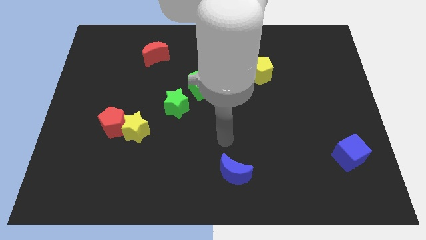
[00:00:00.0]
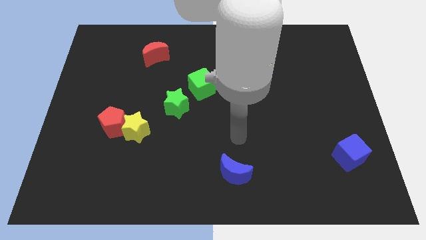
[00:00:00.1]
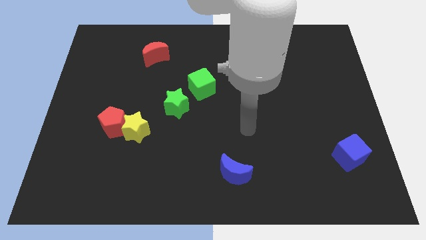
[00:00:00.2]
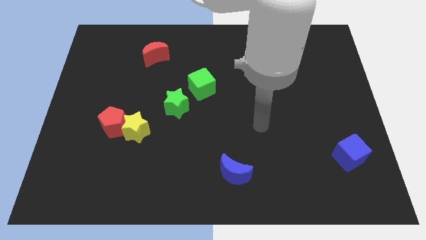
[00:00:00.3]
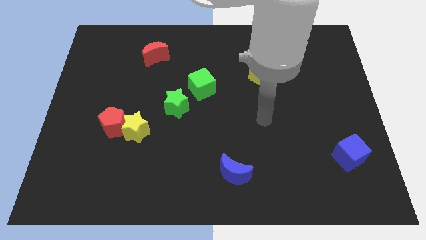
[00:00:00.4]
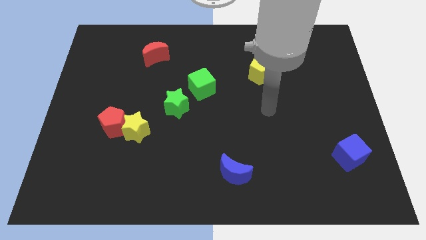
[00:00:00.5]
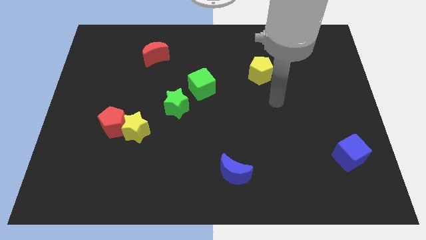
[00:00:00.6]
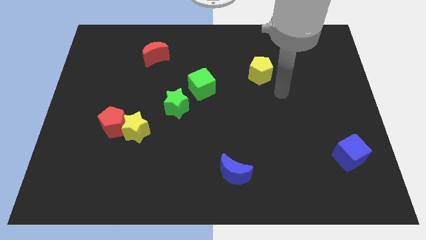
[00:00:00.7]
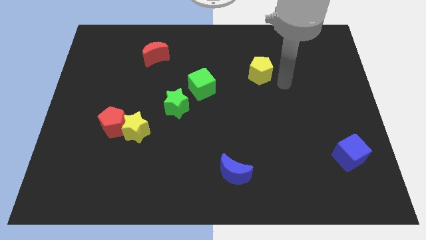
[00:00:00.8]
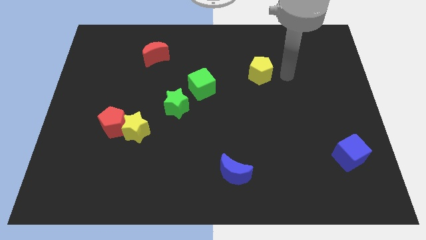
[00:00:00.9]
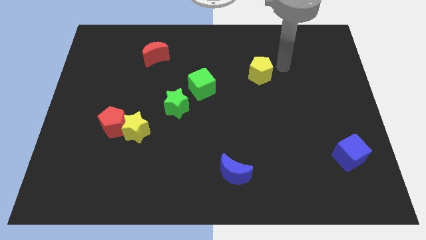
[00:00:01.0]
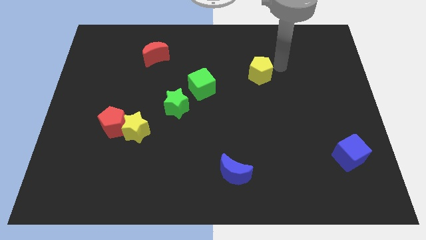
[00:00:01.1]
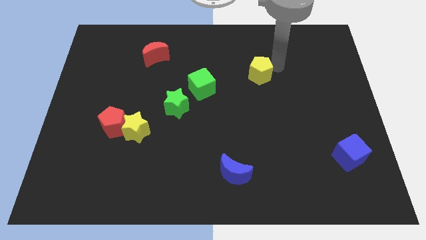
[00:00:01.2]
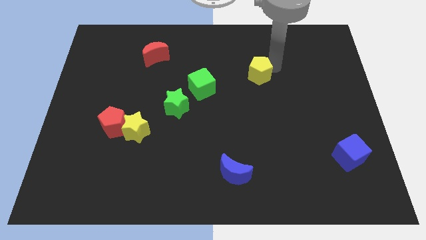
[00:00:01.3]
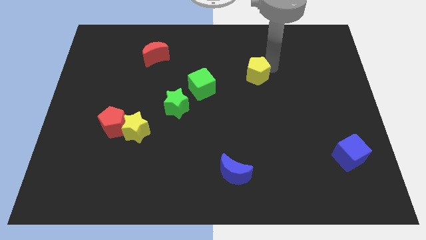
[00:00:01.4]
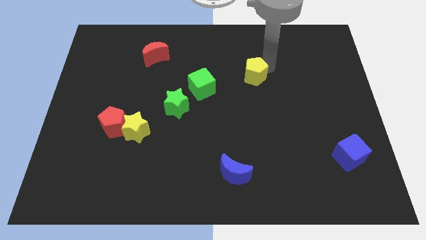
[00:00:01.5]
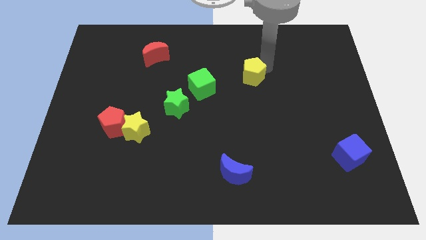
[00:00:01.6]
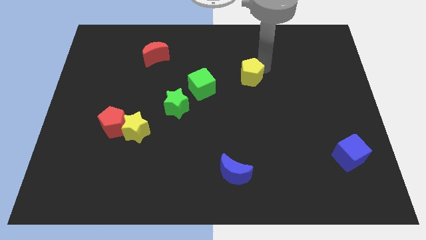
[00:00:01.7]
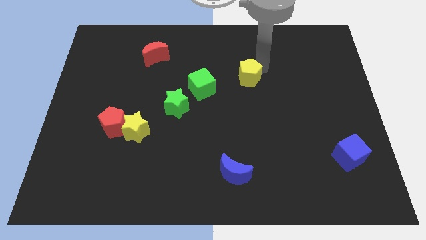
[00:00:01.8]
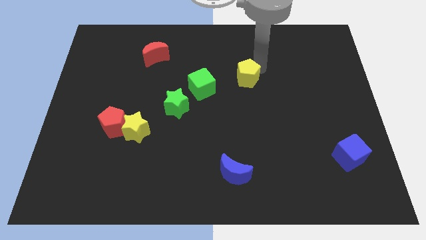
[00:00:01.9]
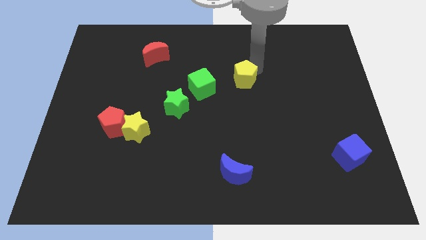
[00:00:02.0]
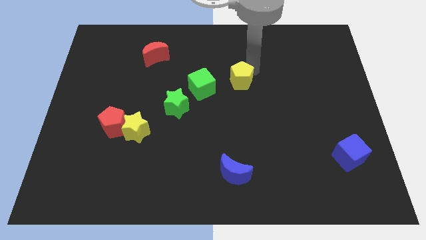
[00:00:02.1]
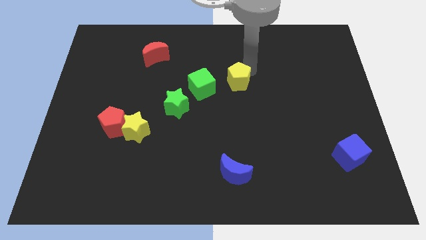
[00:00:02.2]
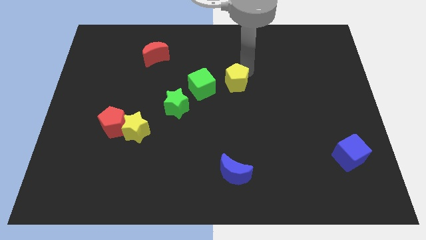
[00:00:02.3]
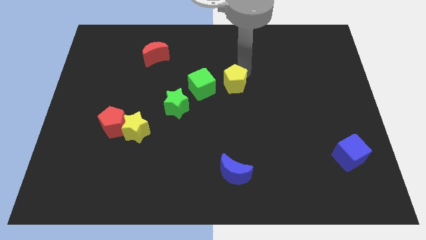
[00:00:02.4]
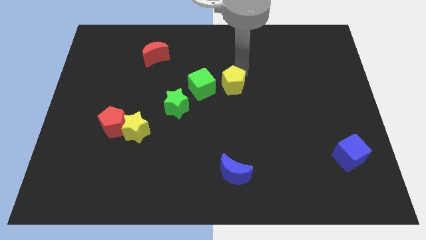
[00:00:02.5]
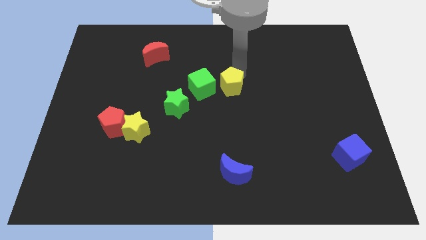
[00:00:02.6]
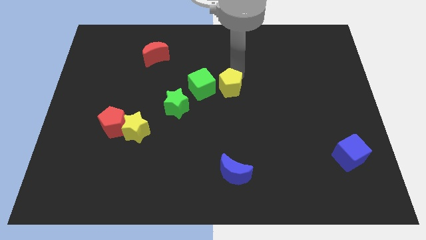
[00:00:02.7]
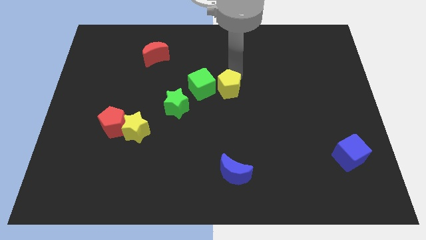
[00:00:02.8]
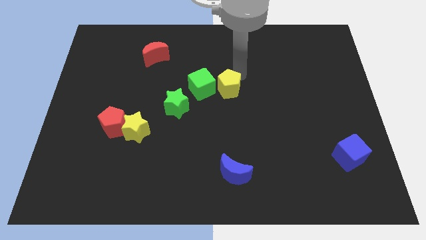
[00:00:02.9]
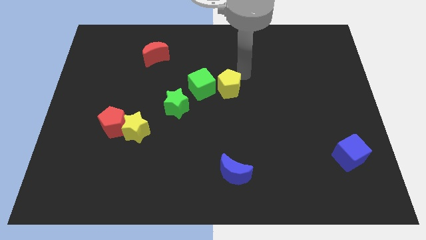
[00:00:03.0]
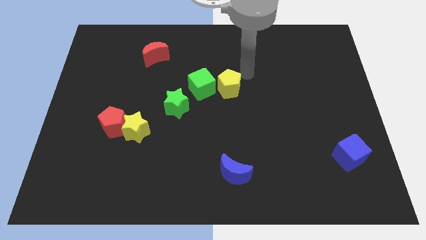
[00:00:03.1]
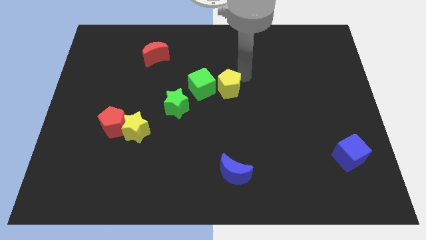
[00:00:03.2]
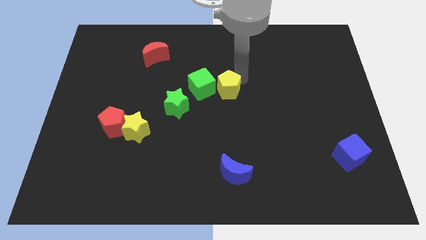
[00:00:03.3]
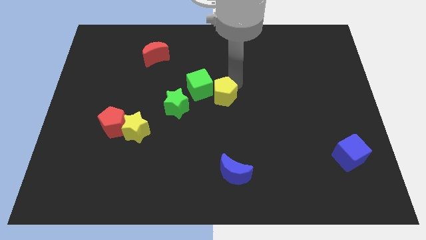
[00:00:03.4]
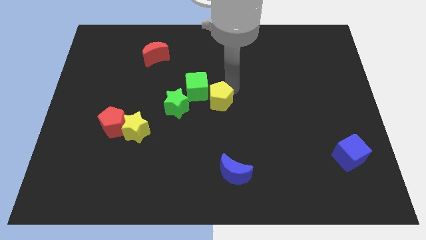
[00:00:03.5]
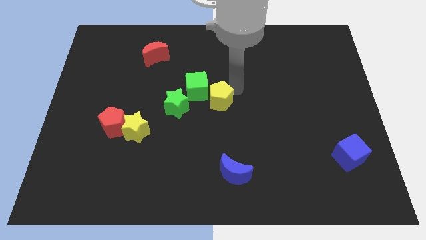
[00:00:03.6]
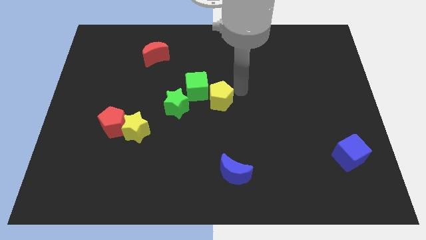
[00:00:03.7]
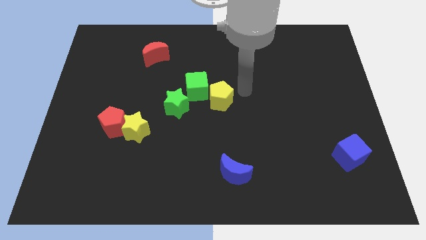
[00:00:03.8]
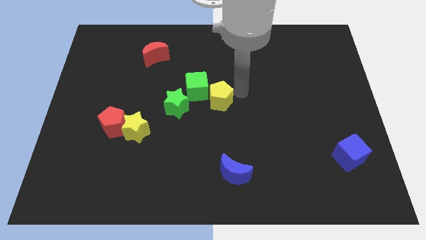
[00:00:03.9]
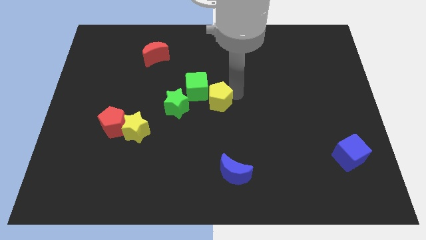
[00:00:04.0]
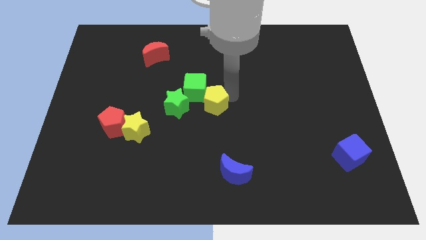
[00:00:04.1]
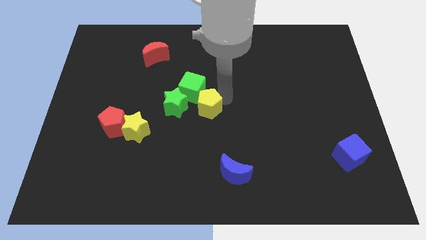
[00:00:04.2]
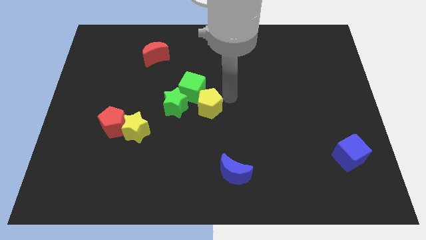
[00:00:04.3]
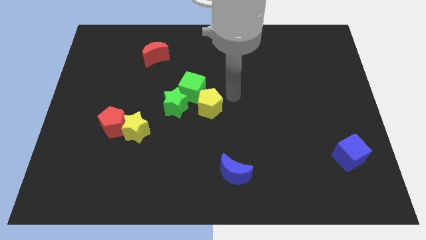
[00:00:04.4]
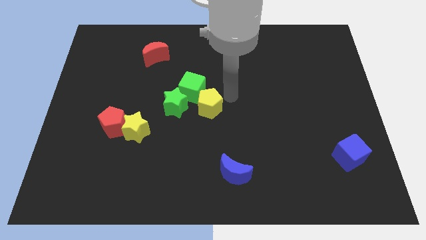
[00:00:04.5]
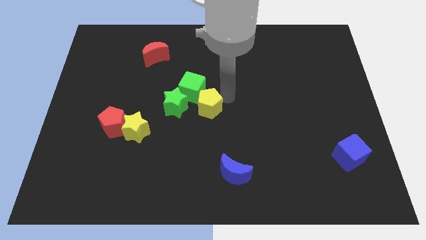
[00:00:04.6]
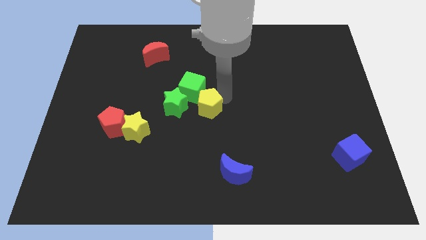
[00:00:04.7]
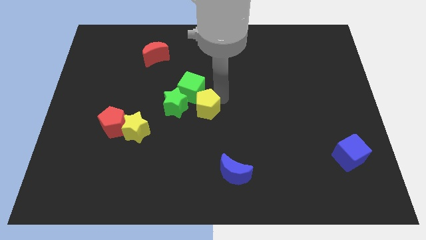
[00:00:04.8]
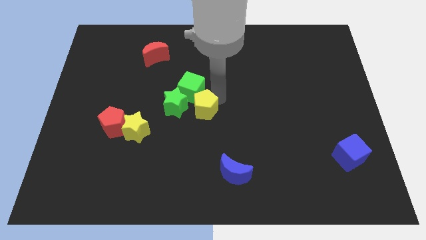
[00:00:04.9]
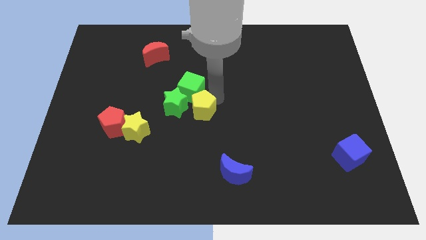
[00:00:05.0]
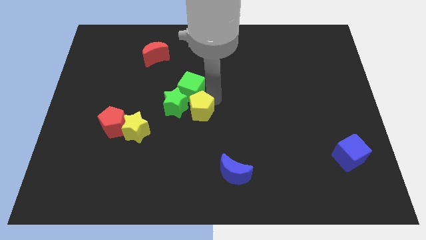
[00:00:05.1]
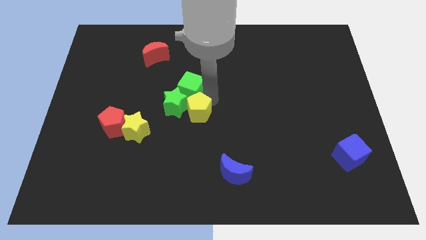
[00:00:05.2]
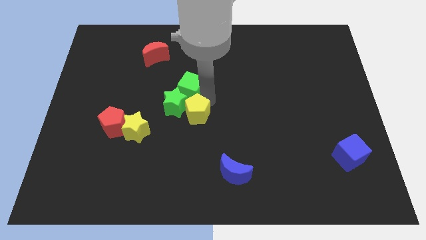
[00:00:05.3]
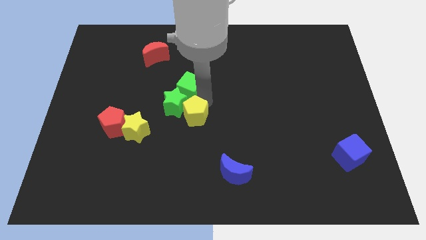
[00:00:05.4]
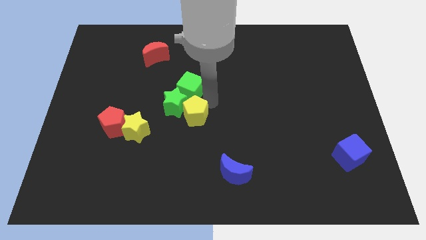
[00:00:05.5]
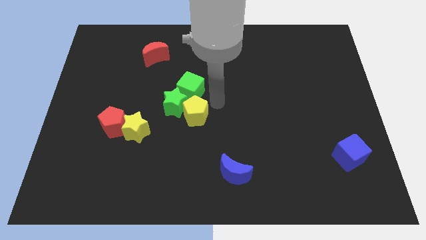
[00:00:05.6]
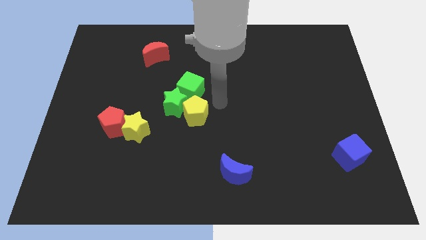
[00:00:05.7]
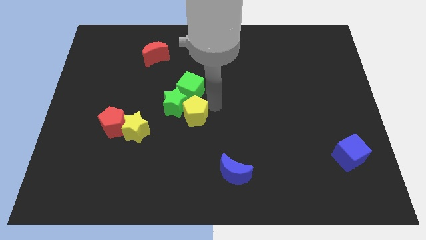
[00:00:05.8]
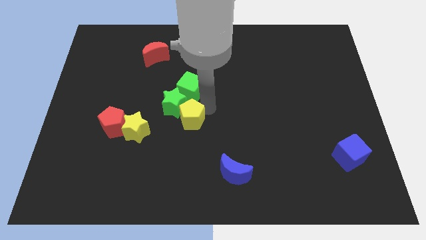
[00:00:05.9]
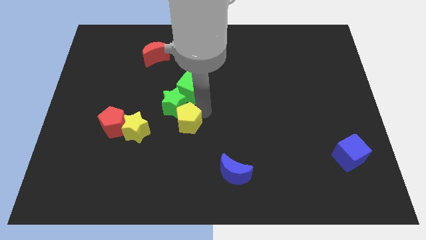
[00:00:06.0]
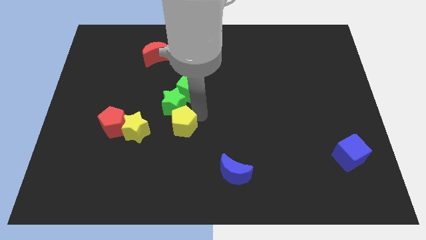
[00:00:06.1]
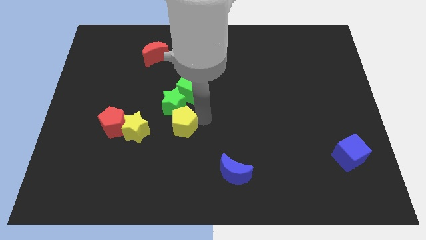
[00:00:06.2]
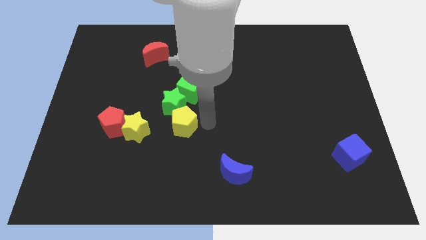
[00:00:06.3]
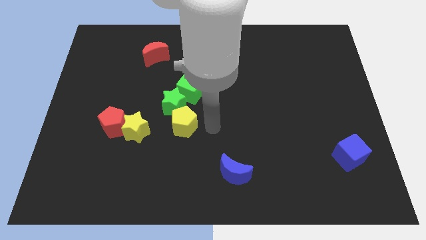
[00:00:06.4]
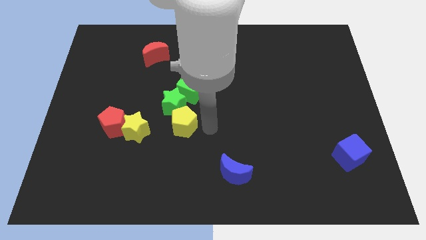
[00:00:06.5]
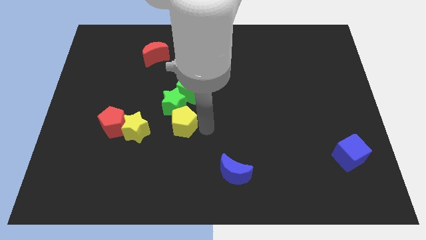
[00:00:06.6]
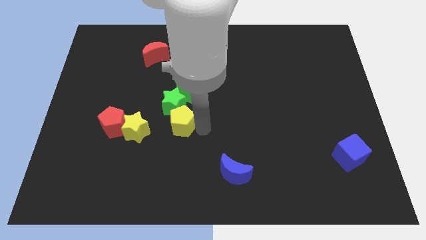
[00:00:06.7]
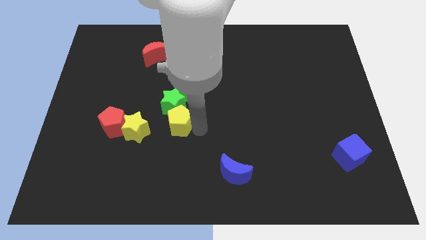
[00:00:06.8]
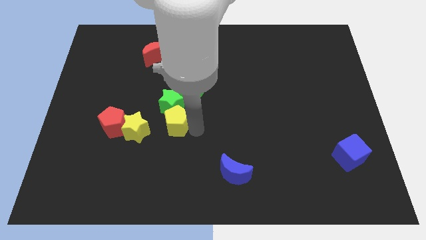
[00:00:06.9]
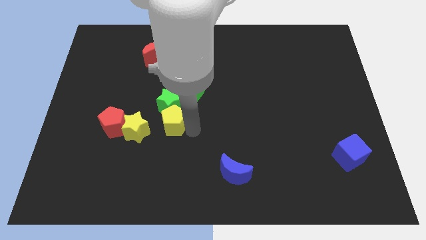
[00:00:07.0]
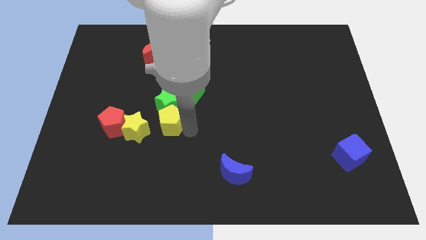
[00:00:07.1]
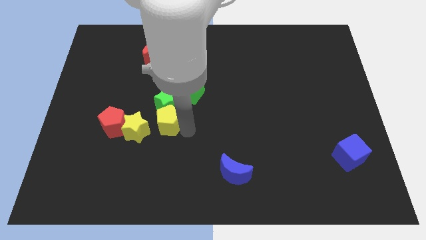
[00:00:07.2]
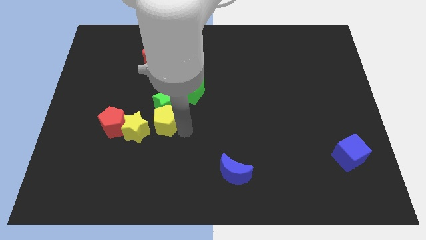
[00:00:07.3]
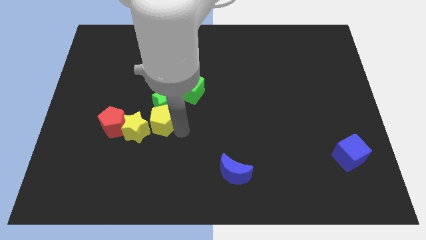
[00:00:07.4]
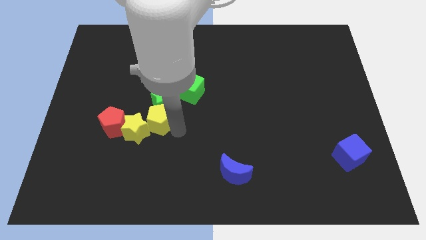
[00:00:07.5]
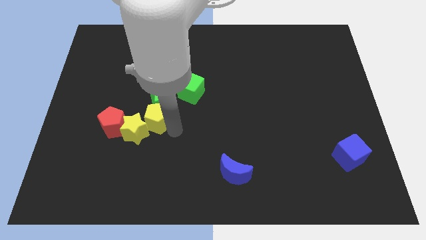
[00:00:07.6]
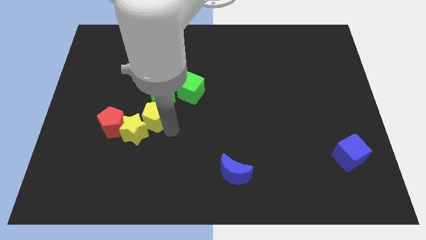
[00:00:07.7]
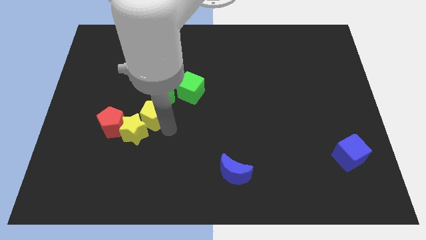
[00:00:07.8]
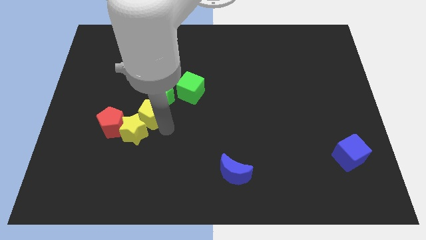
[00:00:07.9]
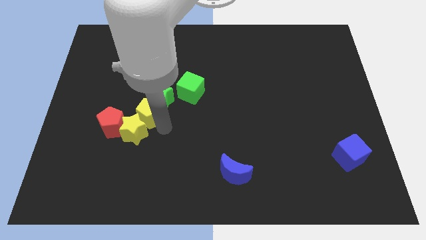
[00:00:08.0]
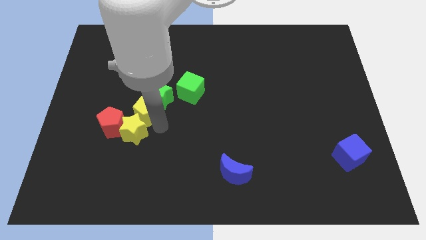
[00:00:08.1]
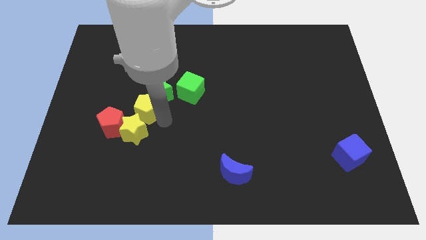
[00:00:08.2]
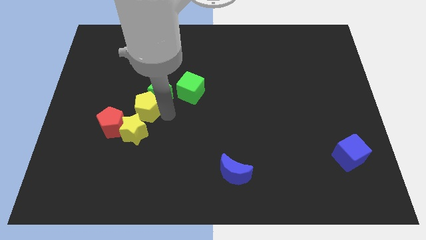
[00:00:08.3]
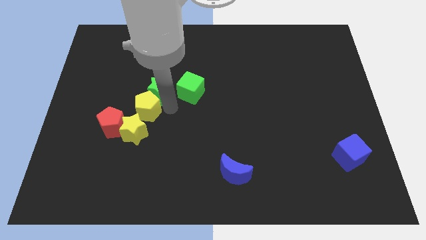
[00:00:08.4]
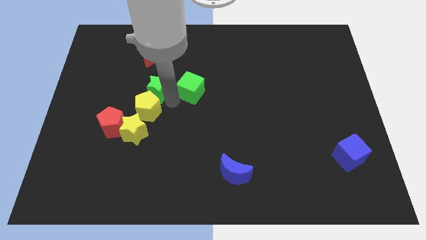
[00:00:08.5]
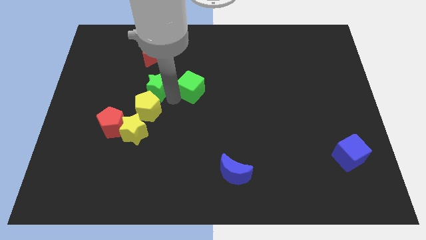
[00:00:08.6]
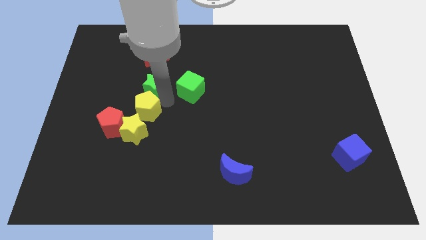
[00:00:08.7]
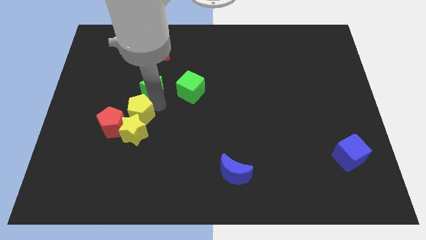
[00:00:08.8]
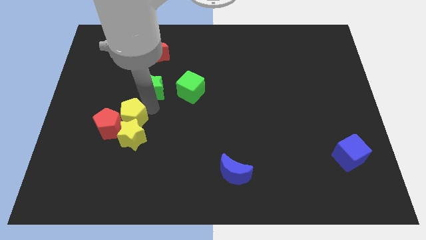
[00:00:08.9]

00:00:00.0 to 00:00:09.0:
put the yellow pentagon to the red pentagon
